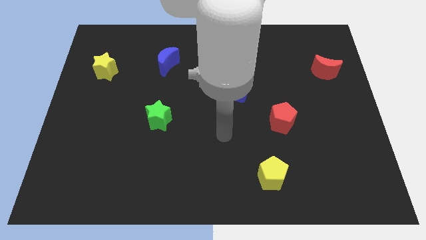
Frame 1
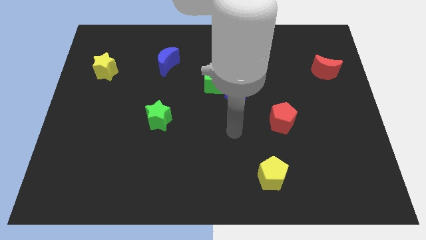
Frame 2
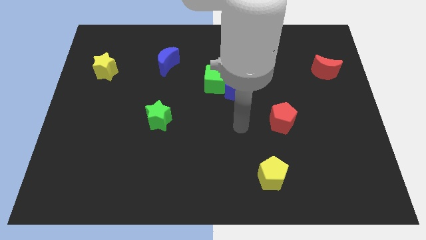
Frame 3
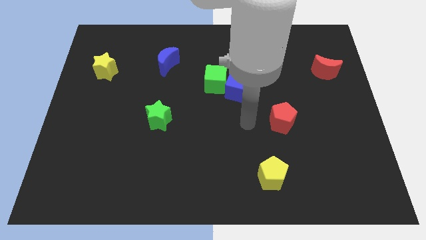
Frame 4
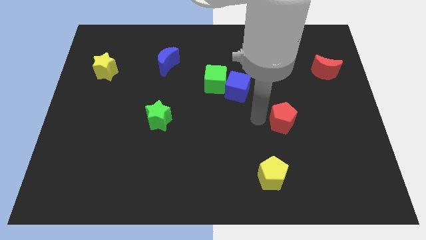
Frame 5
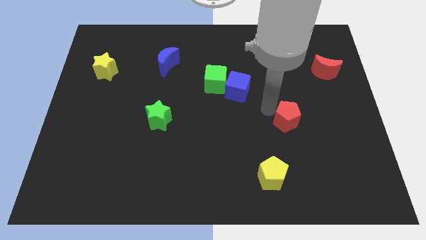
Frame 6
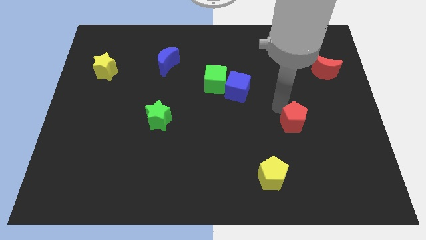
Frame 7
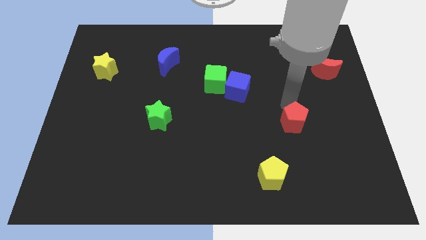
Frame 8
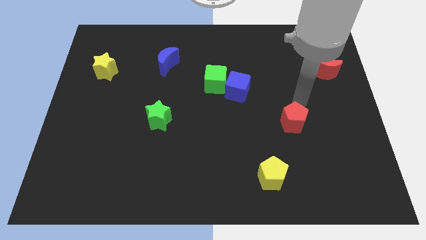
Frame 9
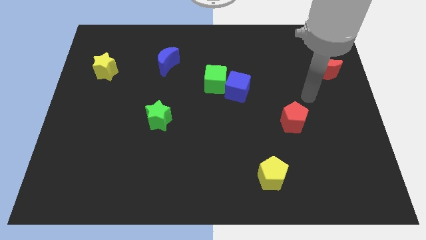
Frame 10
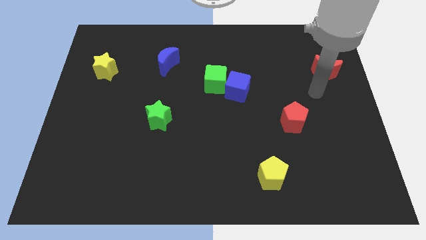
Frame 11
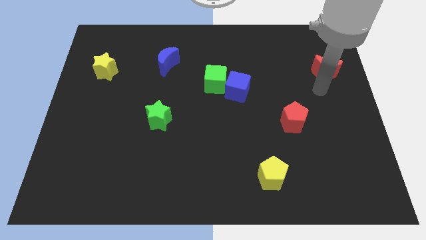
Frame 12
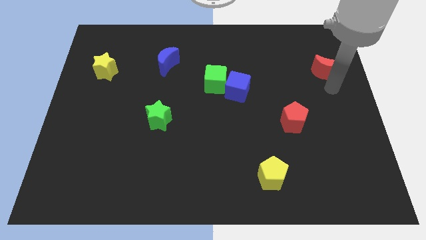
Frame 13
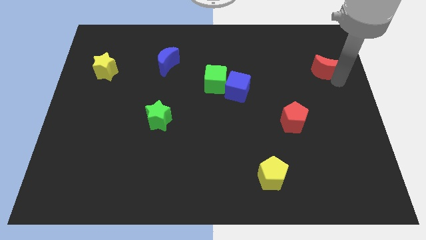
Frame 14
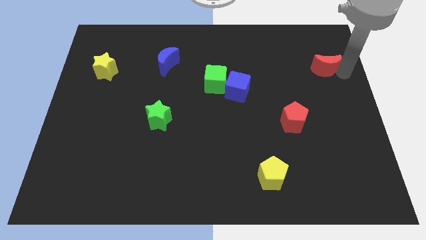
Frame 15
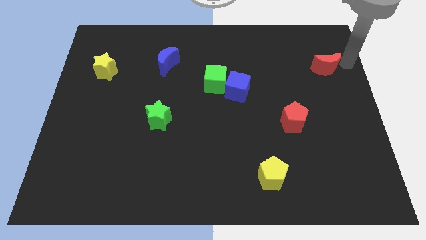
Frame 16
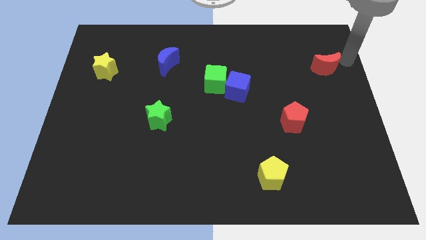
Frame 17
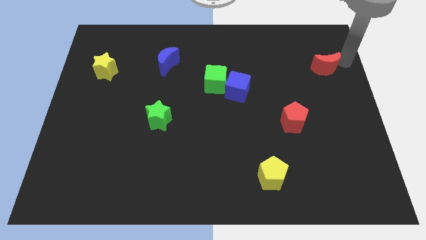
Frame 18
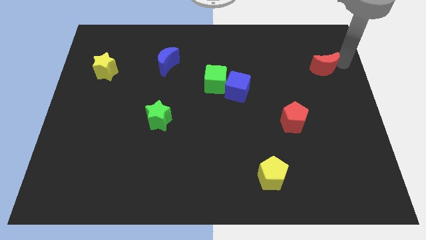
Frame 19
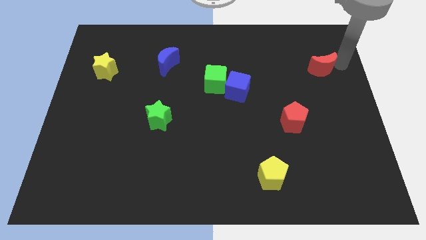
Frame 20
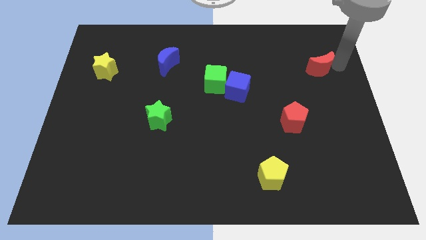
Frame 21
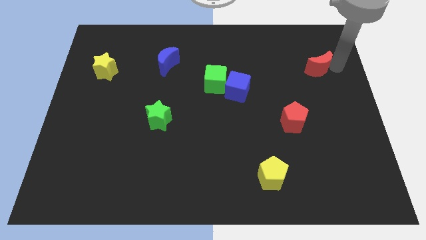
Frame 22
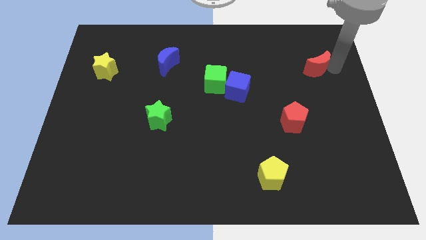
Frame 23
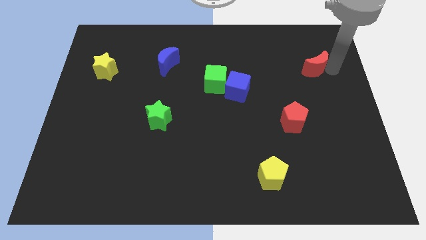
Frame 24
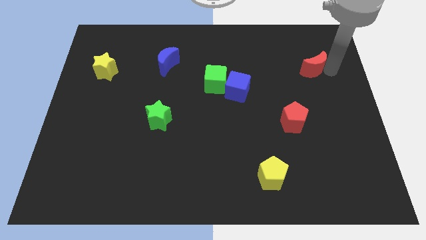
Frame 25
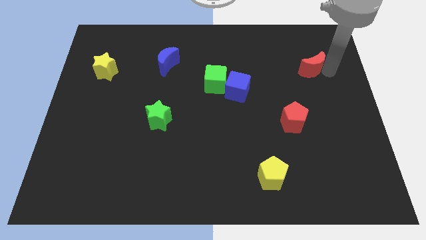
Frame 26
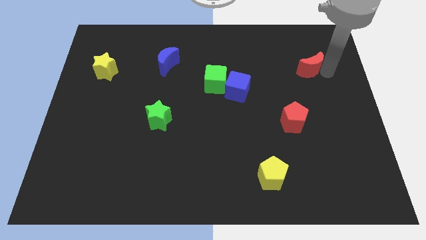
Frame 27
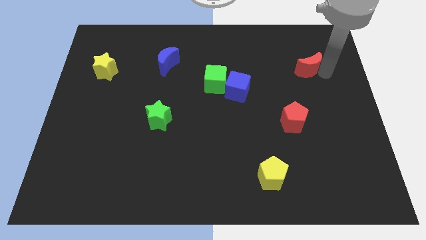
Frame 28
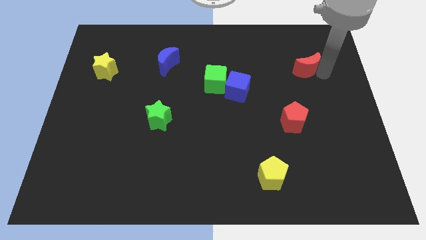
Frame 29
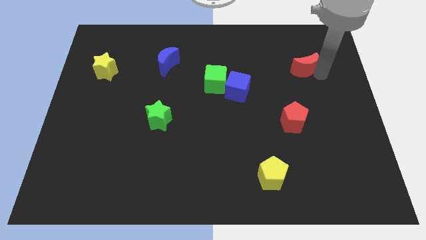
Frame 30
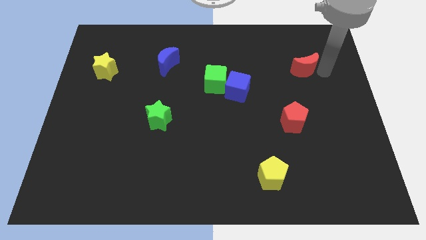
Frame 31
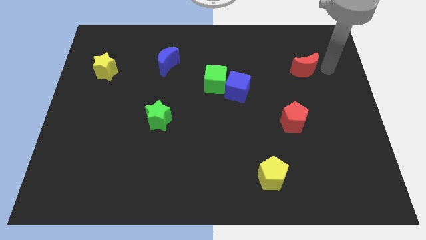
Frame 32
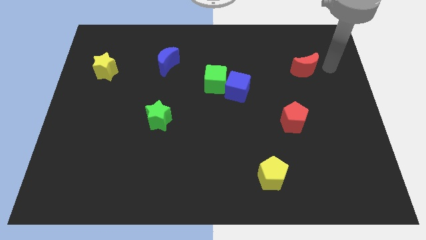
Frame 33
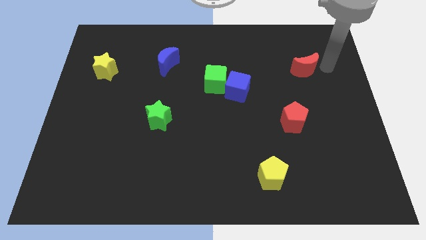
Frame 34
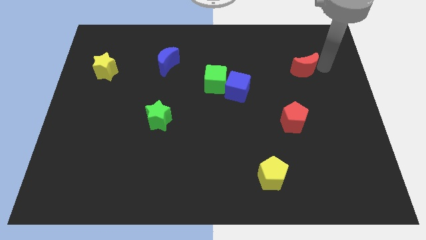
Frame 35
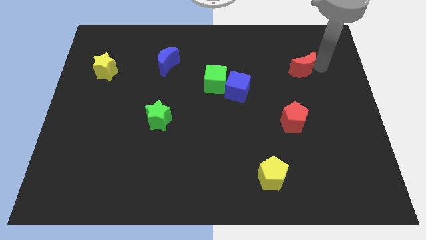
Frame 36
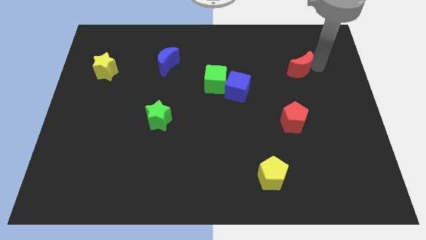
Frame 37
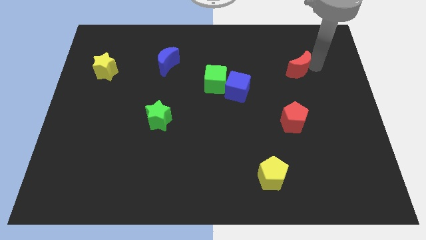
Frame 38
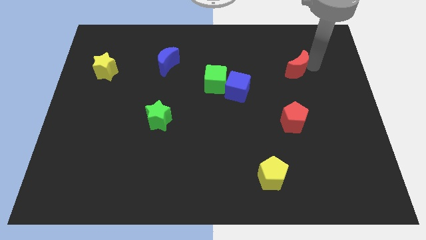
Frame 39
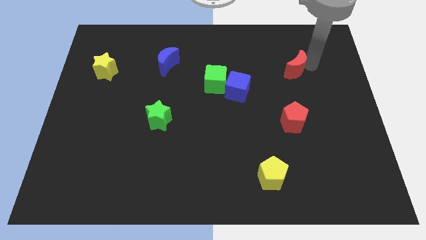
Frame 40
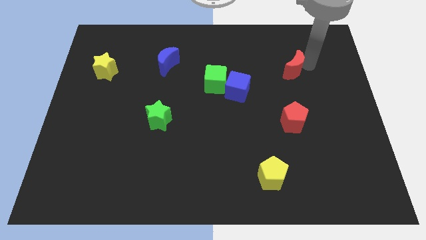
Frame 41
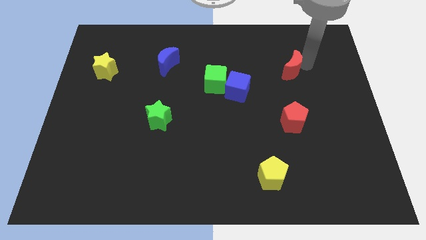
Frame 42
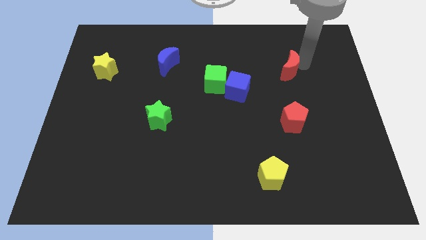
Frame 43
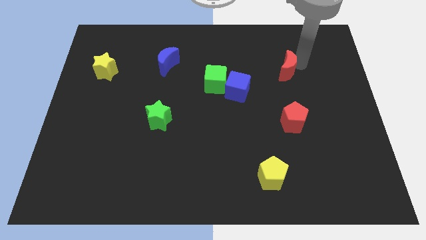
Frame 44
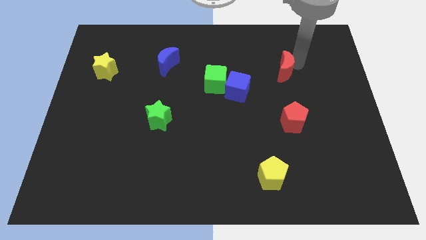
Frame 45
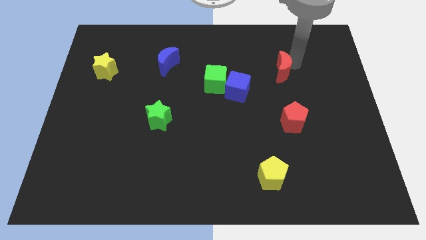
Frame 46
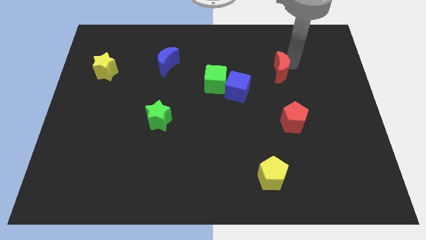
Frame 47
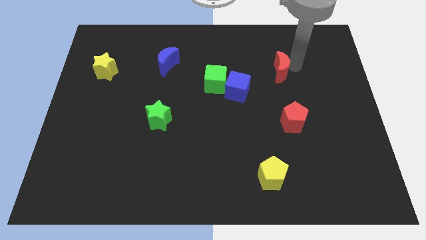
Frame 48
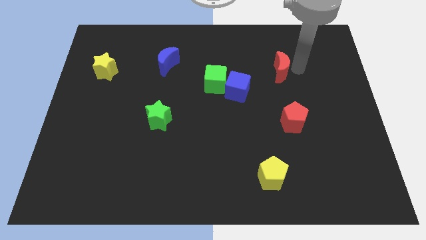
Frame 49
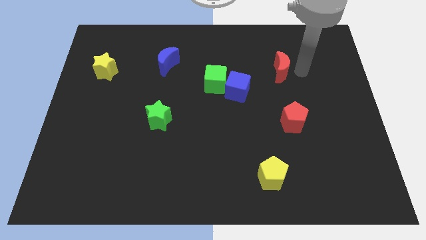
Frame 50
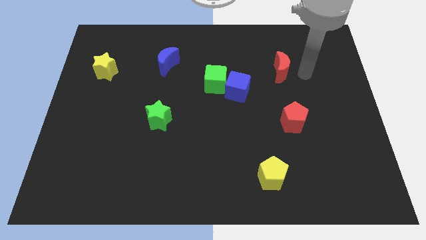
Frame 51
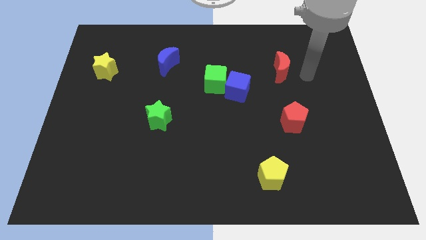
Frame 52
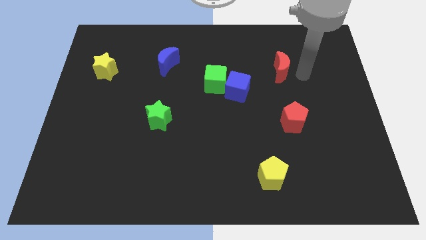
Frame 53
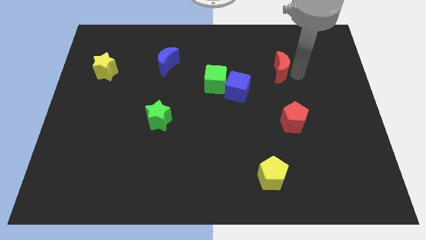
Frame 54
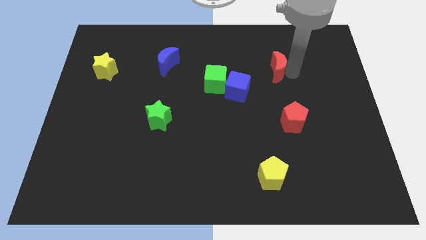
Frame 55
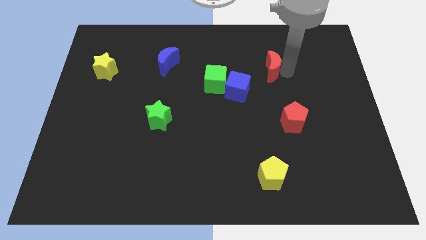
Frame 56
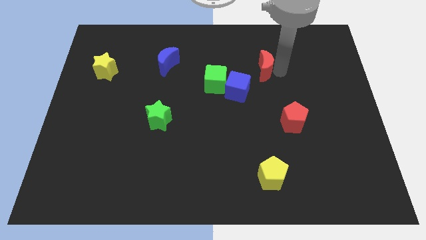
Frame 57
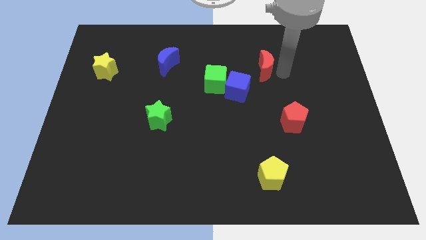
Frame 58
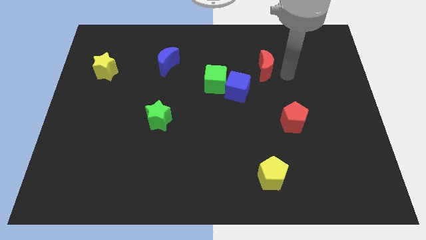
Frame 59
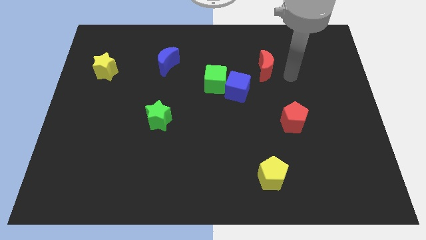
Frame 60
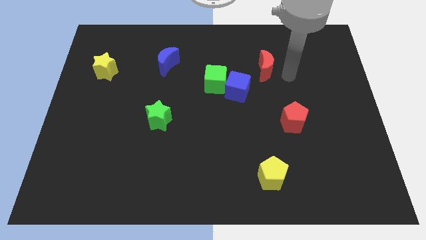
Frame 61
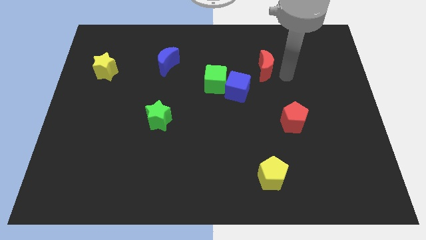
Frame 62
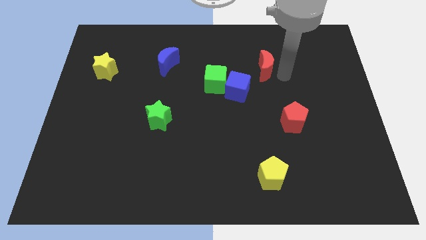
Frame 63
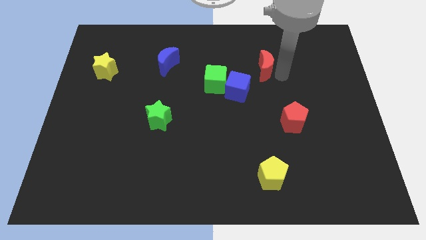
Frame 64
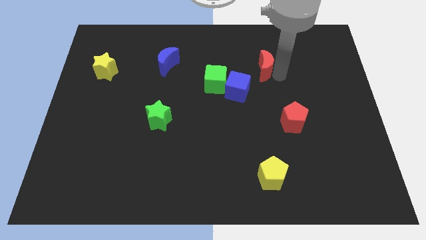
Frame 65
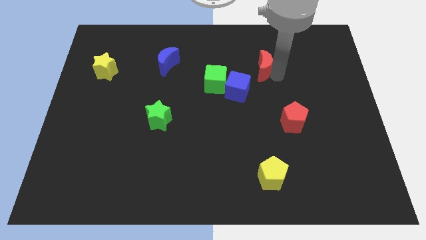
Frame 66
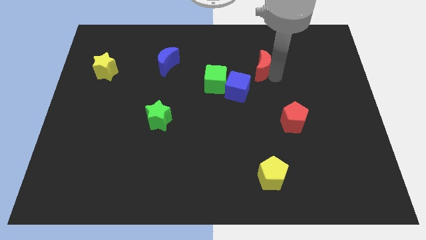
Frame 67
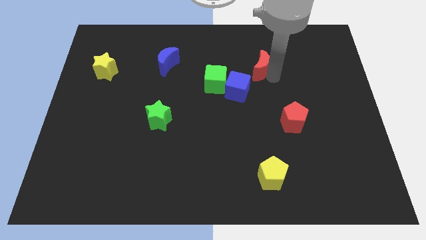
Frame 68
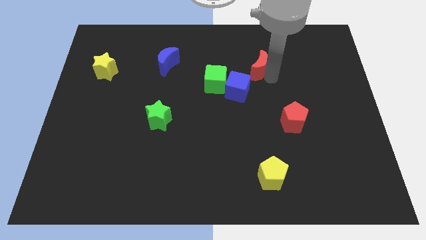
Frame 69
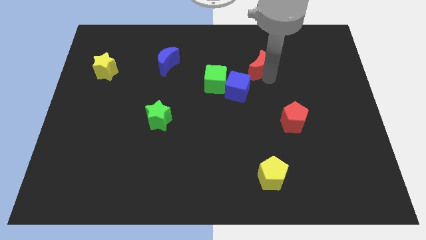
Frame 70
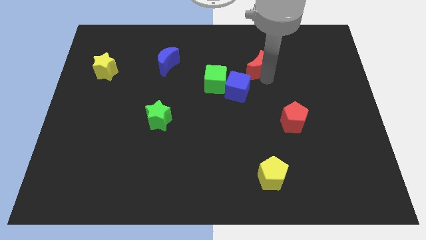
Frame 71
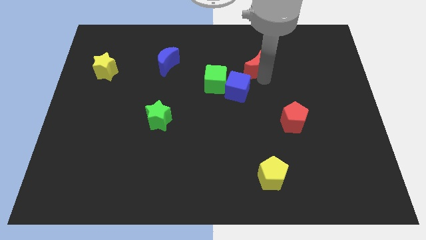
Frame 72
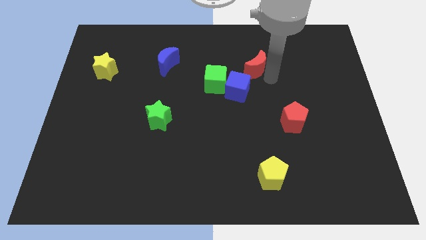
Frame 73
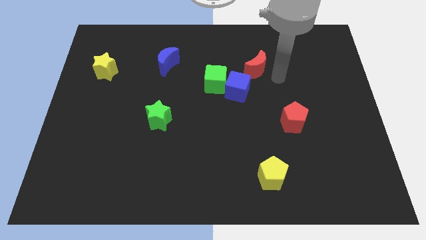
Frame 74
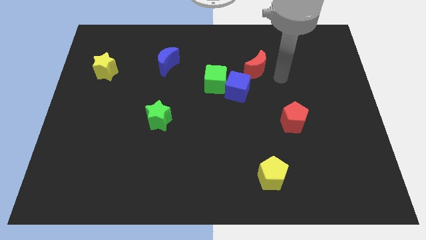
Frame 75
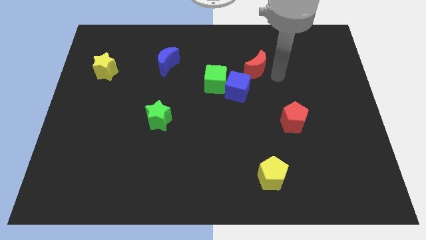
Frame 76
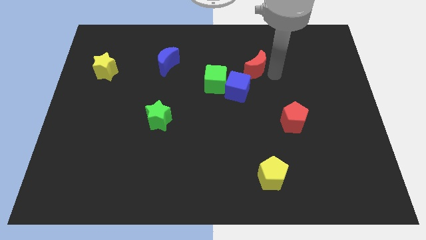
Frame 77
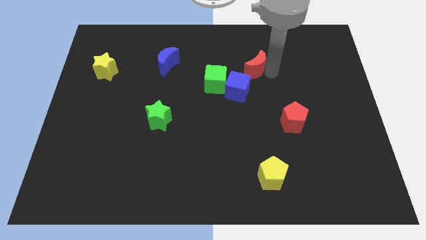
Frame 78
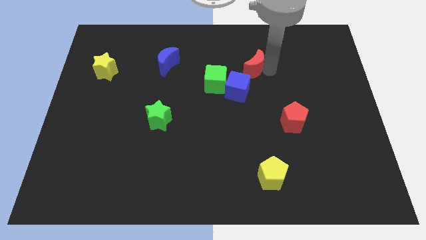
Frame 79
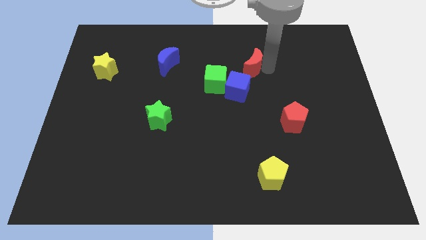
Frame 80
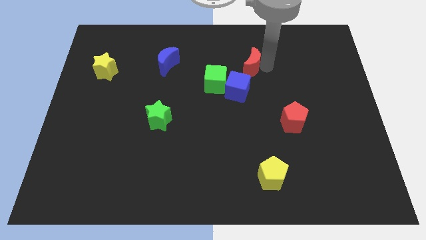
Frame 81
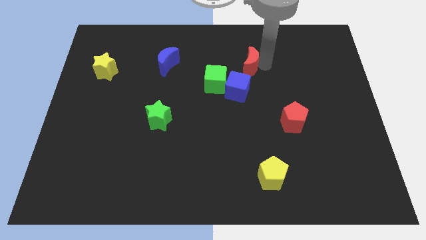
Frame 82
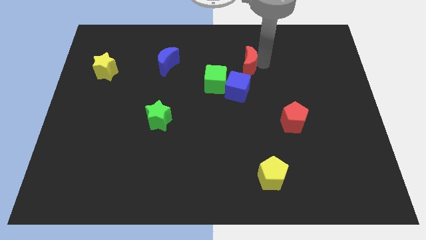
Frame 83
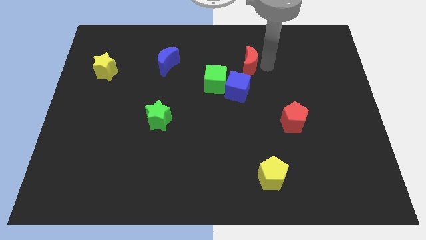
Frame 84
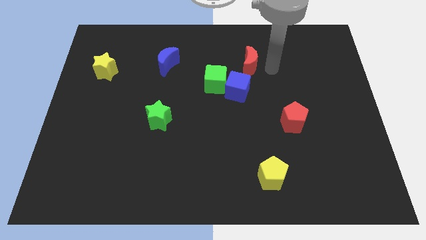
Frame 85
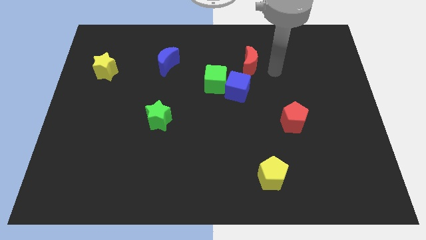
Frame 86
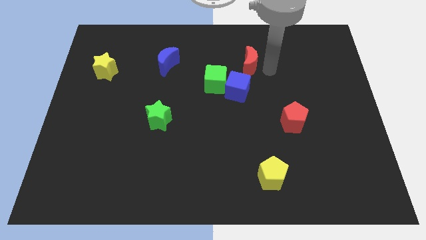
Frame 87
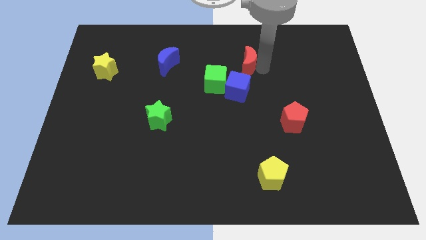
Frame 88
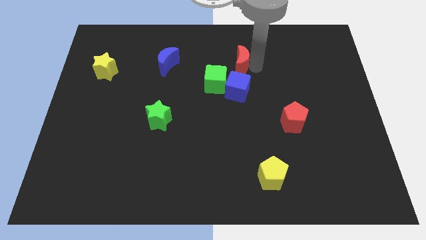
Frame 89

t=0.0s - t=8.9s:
slide the red moon to the left
